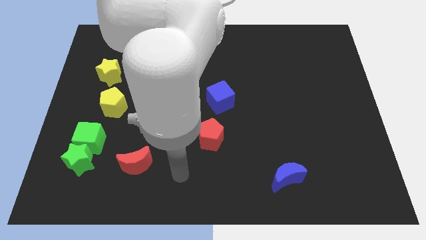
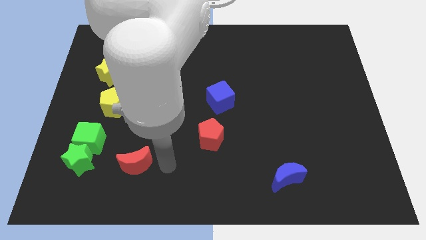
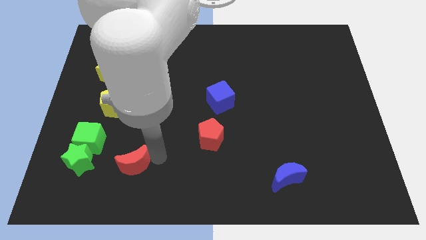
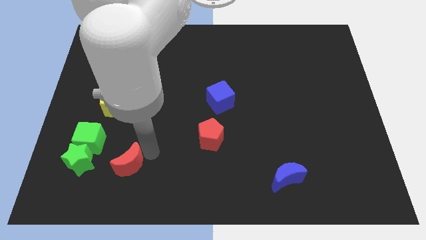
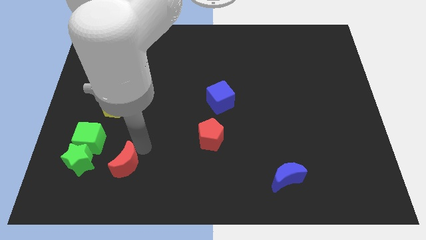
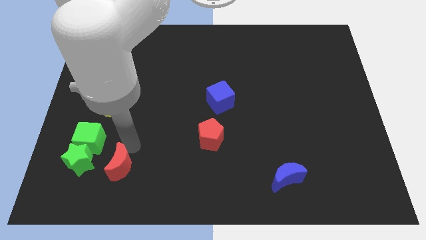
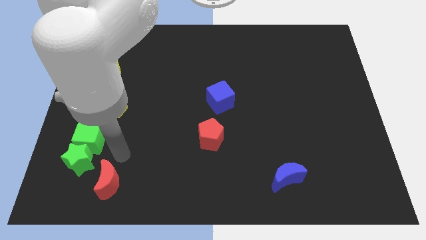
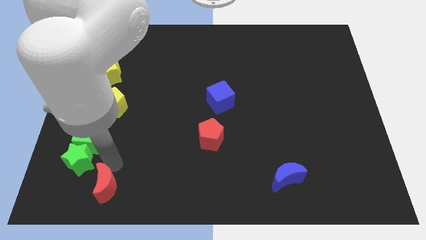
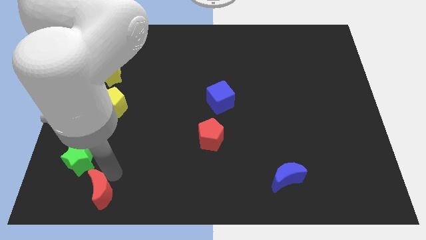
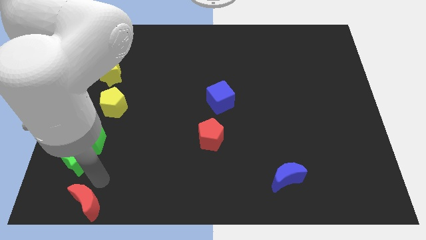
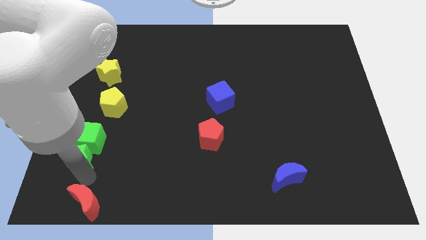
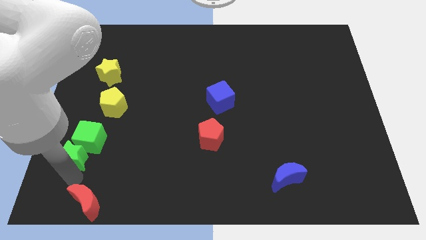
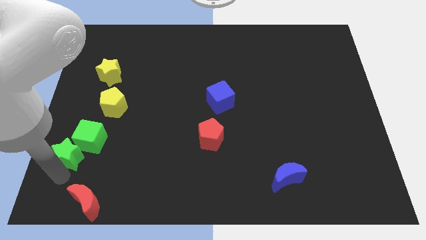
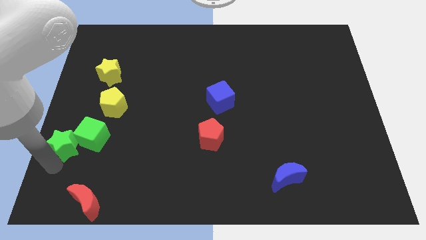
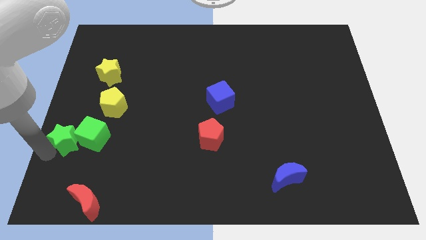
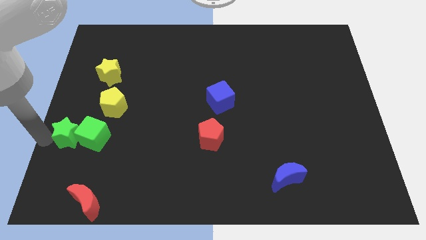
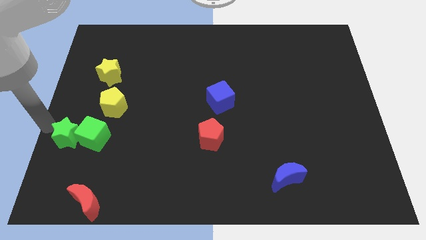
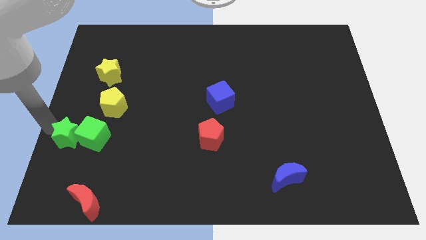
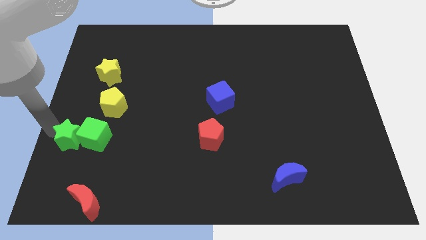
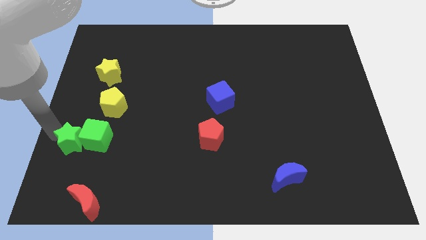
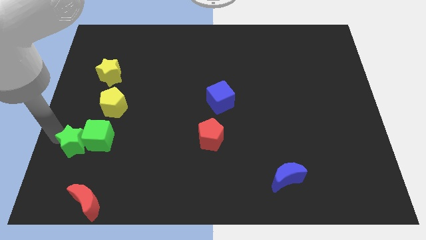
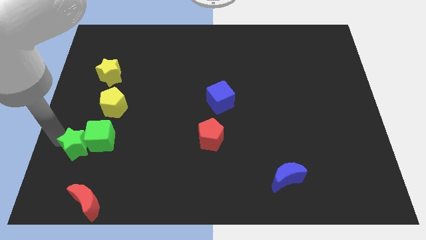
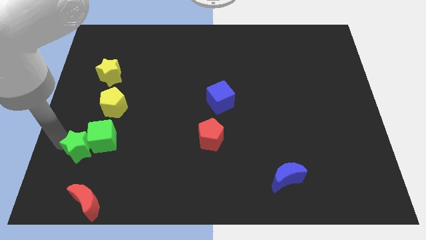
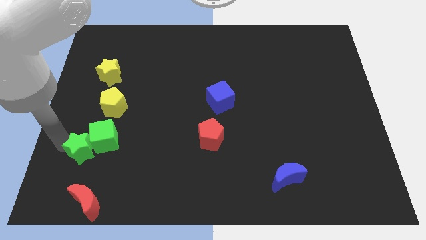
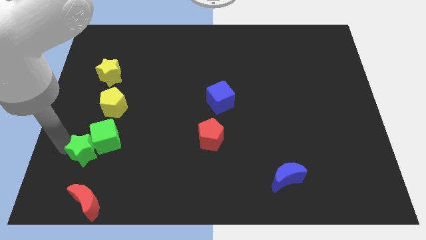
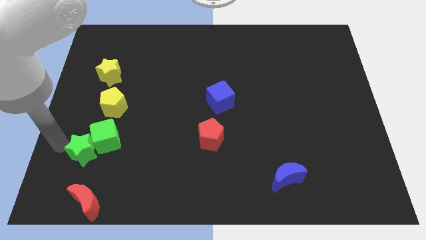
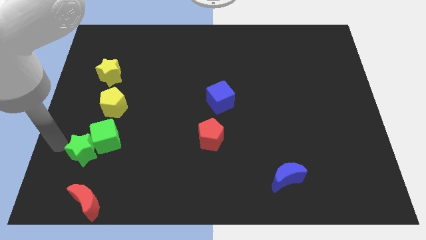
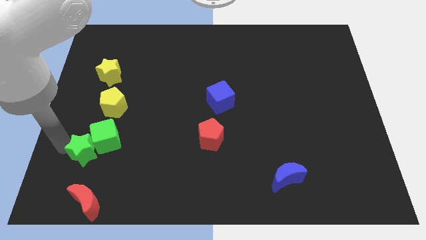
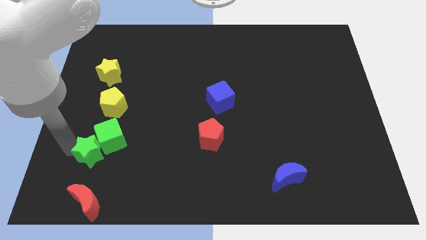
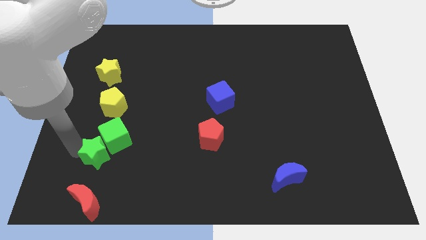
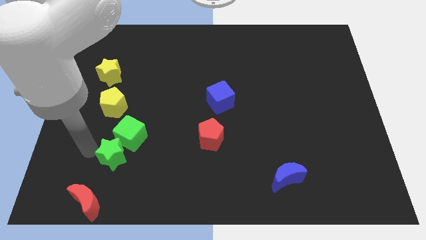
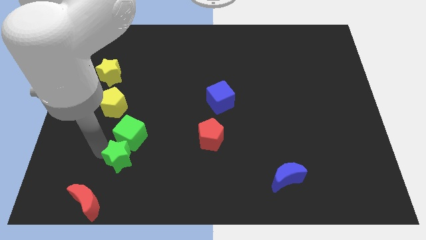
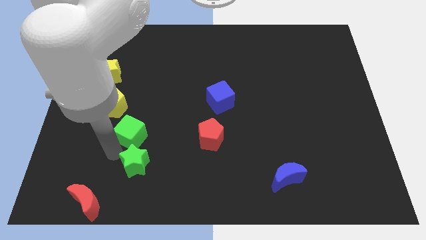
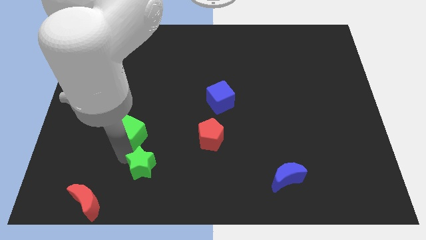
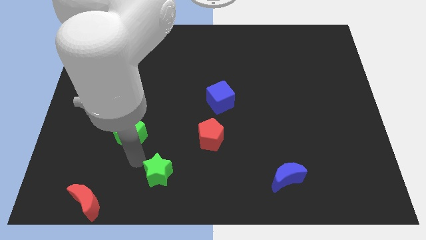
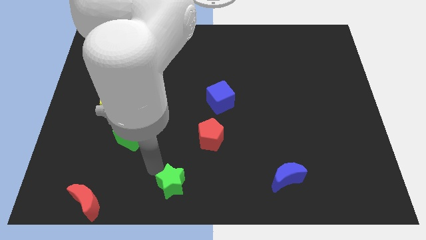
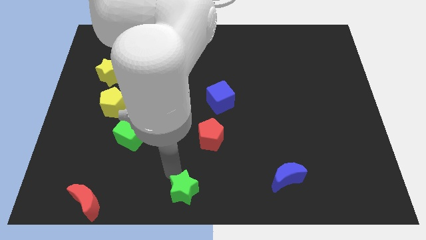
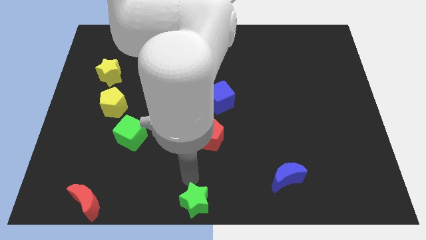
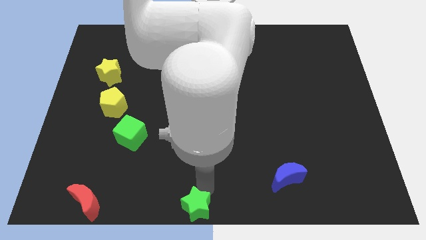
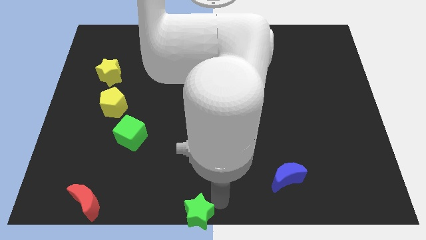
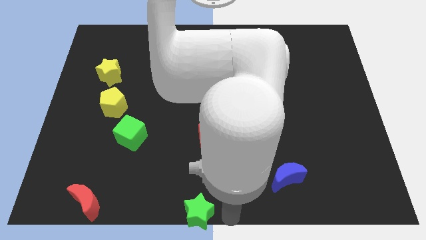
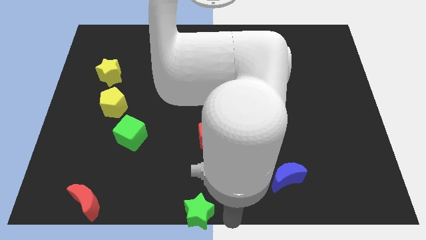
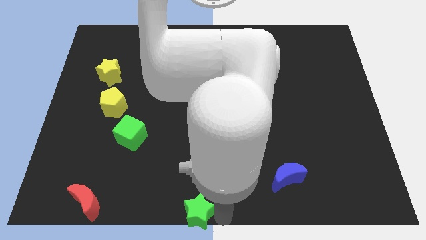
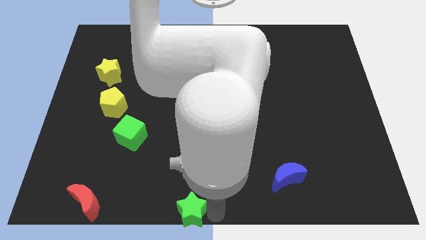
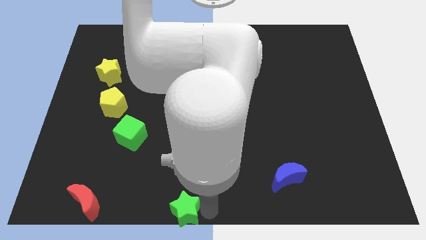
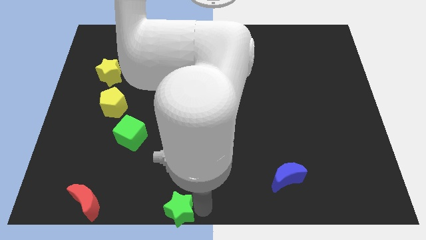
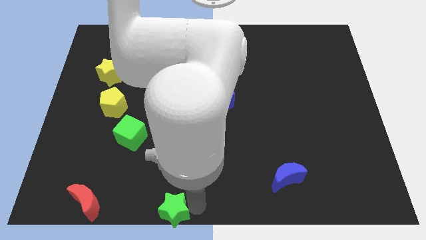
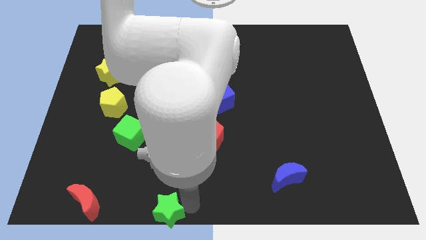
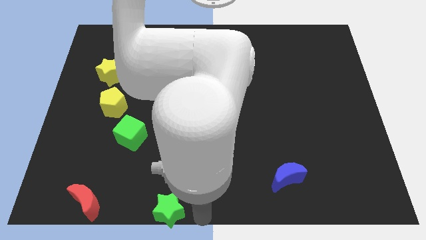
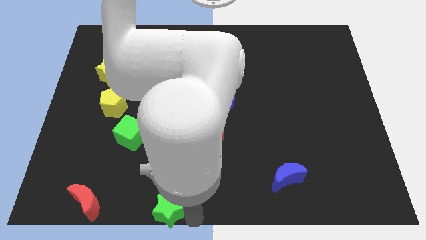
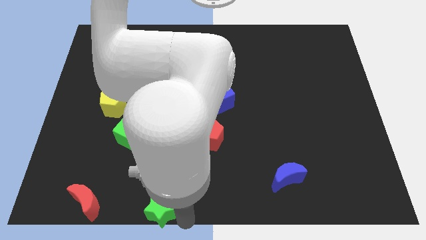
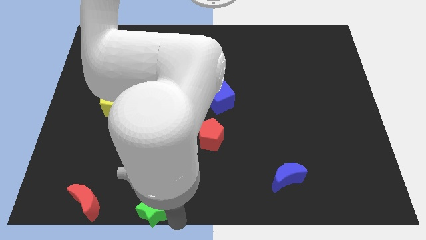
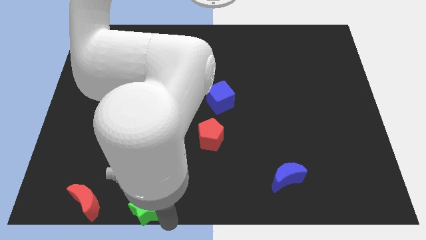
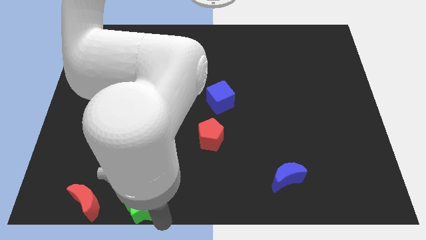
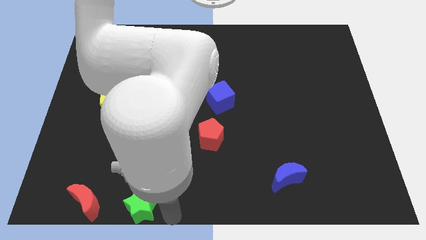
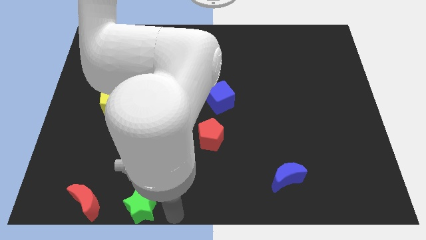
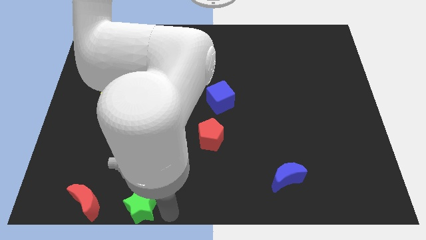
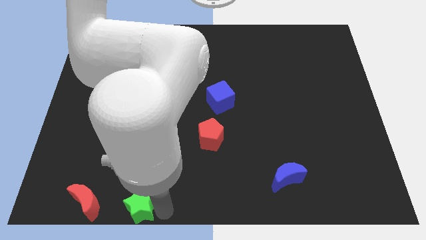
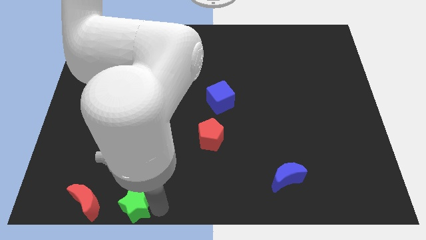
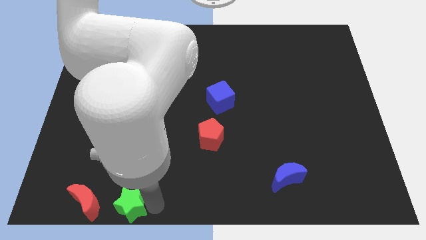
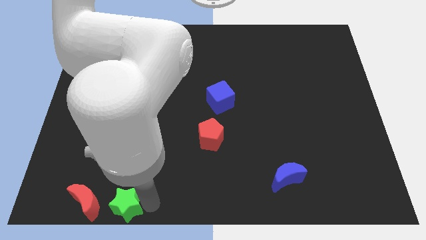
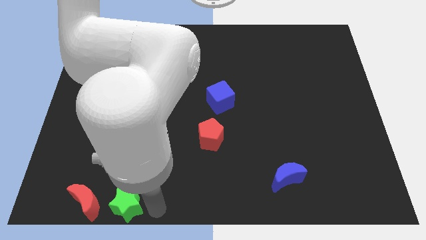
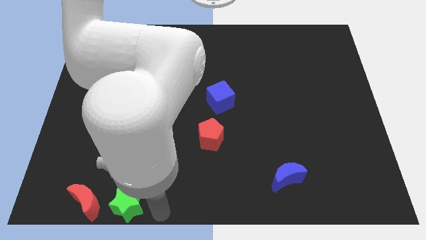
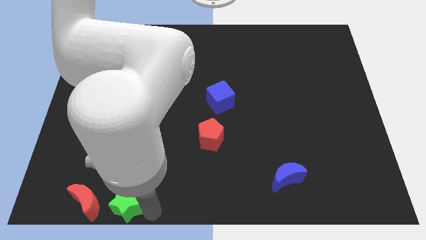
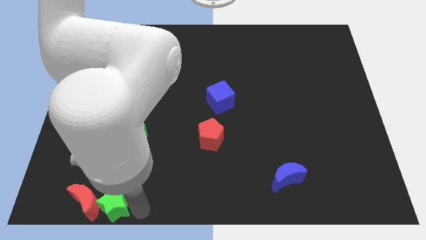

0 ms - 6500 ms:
move the green star towards the red moon
